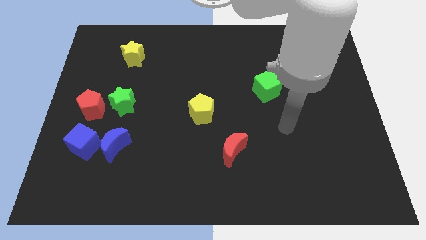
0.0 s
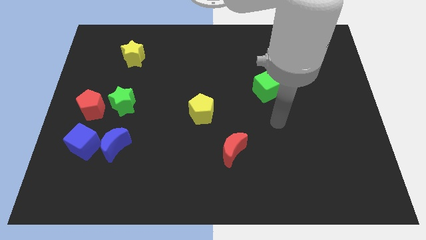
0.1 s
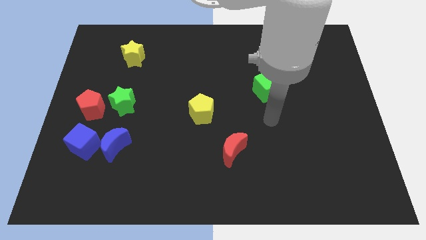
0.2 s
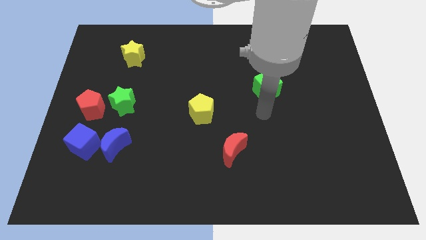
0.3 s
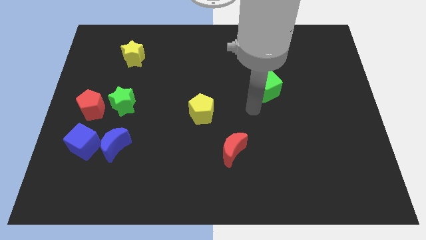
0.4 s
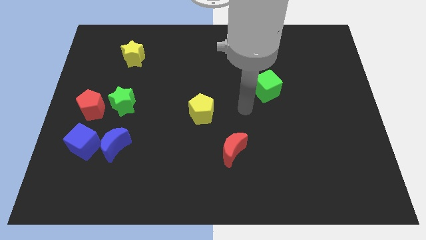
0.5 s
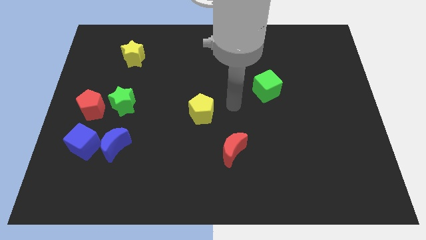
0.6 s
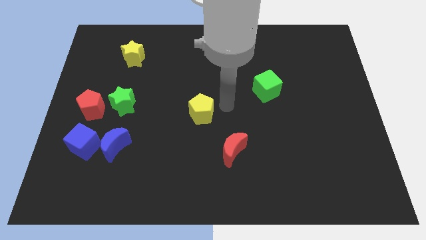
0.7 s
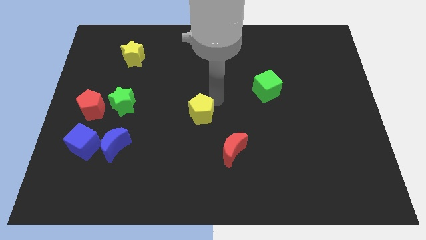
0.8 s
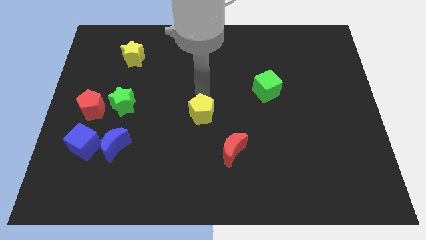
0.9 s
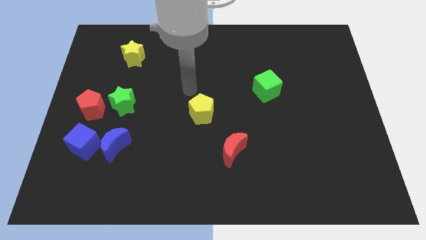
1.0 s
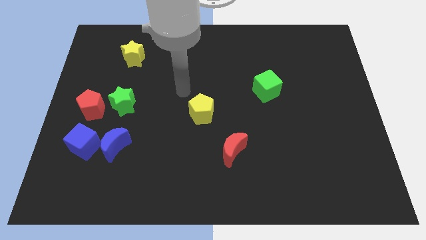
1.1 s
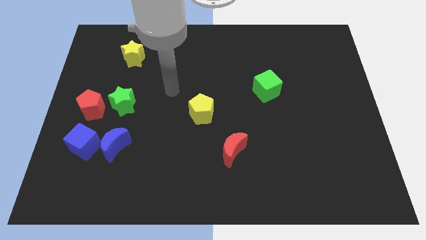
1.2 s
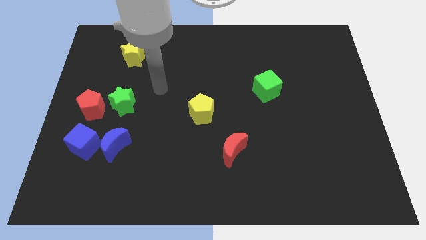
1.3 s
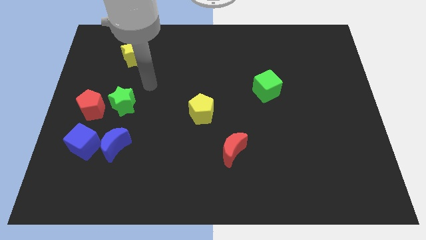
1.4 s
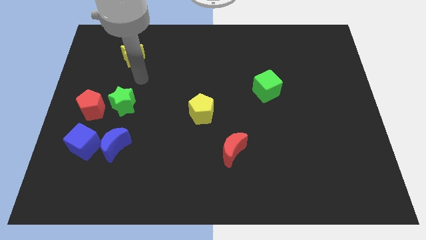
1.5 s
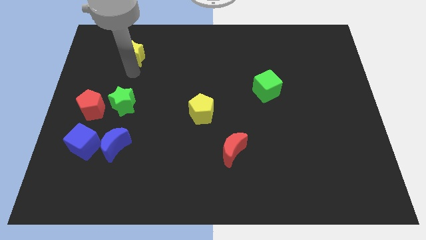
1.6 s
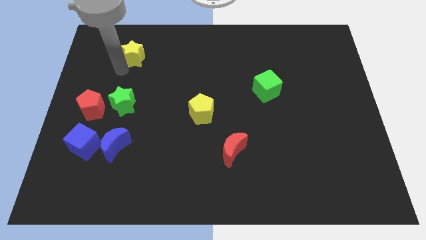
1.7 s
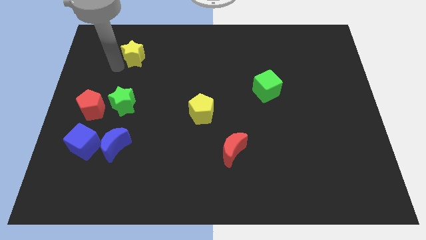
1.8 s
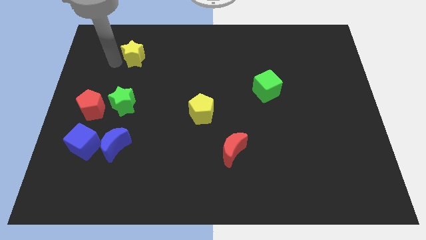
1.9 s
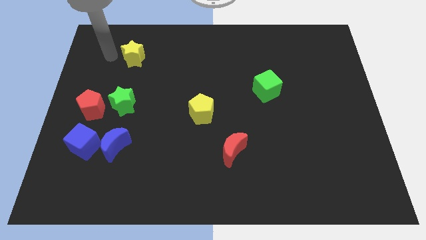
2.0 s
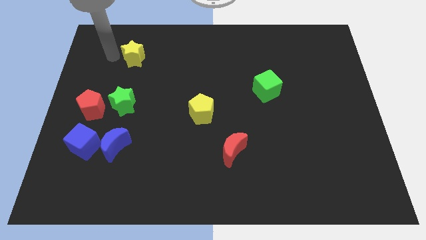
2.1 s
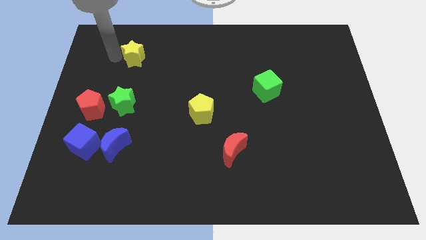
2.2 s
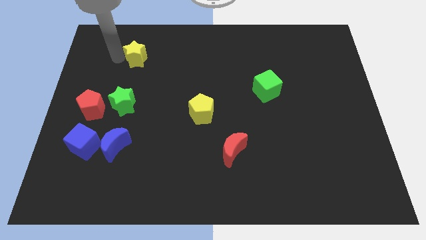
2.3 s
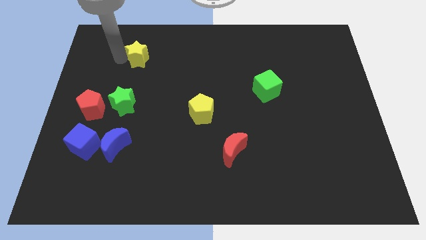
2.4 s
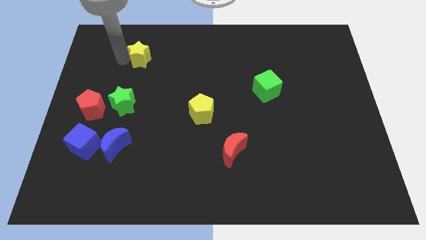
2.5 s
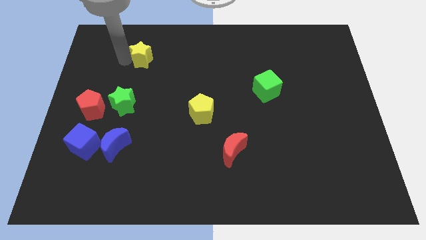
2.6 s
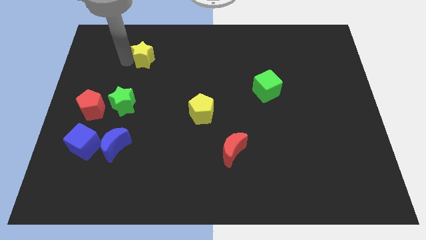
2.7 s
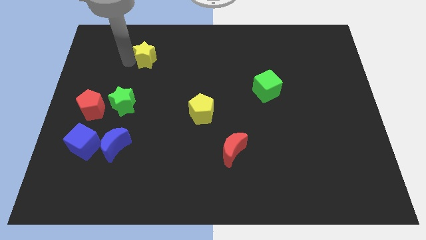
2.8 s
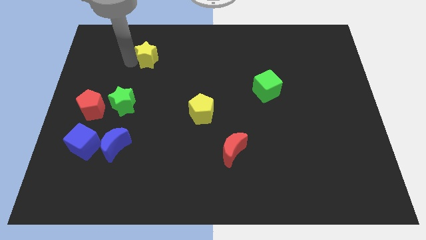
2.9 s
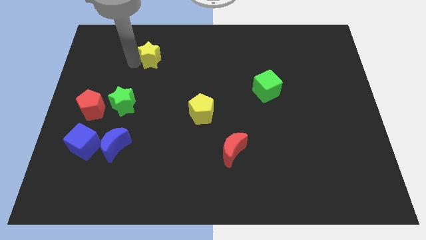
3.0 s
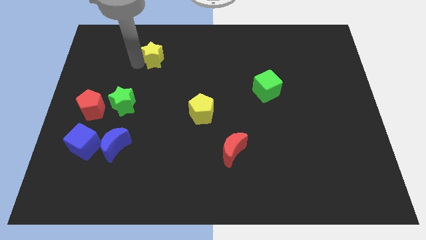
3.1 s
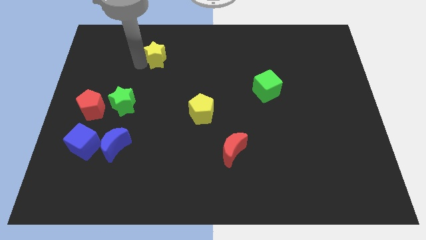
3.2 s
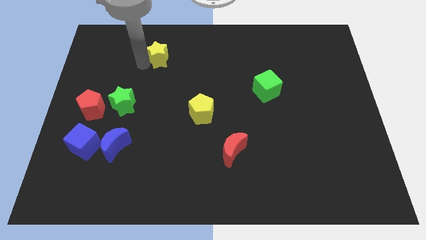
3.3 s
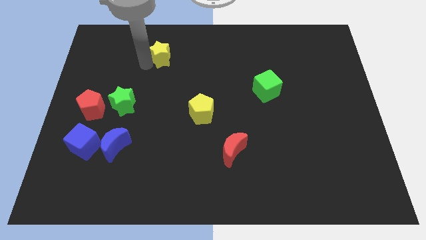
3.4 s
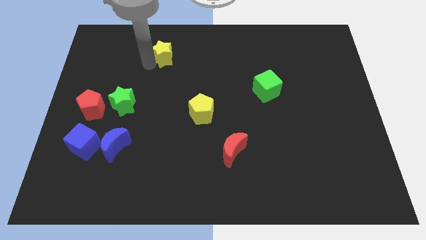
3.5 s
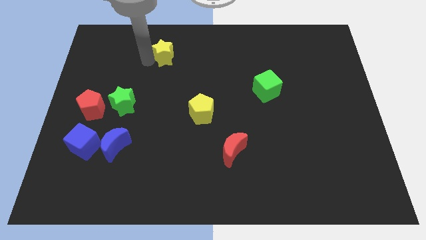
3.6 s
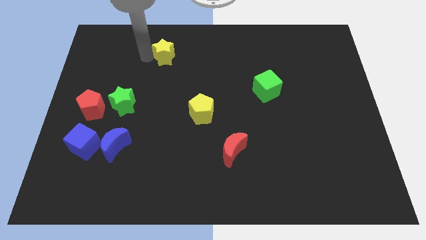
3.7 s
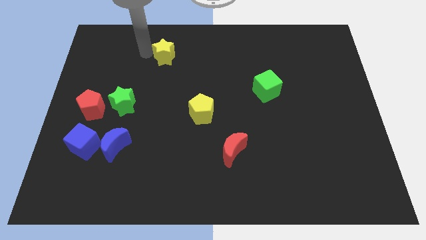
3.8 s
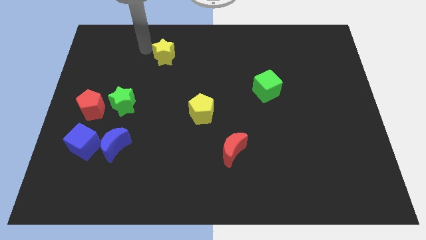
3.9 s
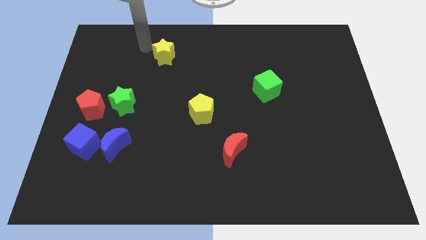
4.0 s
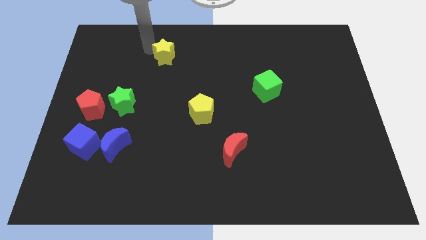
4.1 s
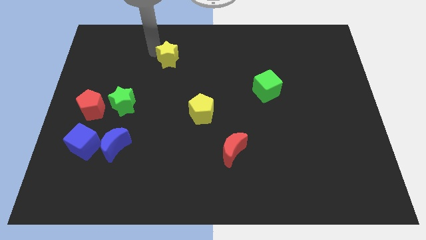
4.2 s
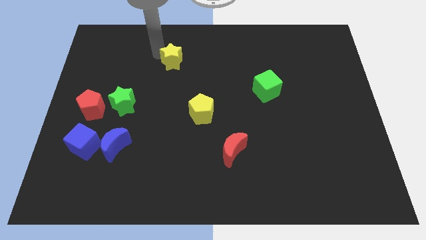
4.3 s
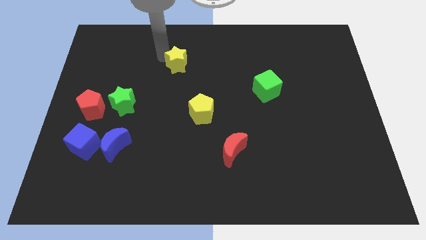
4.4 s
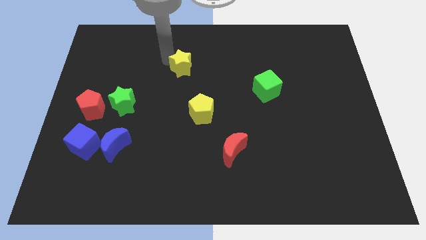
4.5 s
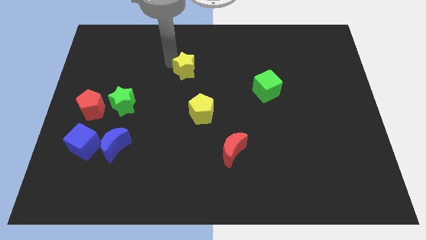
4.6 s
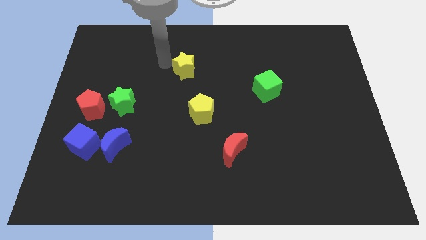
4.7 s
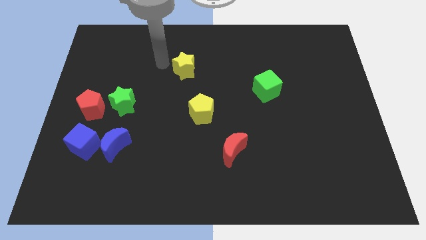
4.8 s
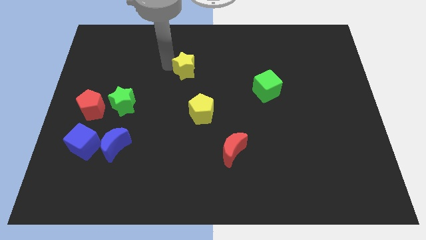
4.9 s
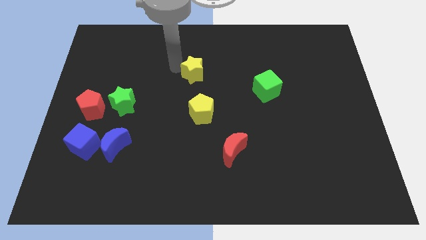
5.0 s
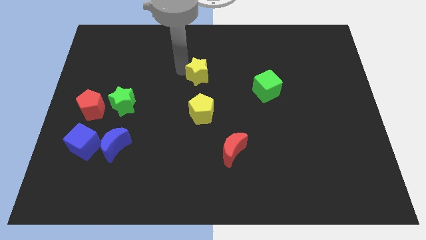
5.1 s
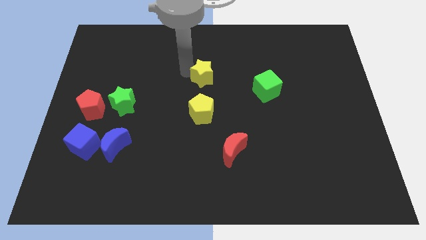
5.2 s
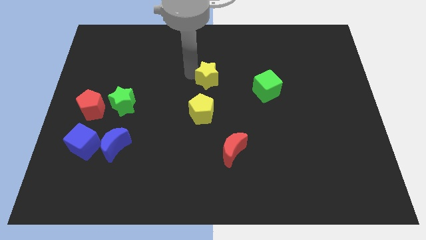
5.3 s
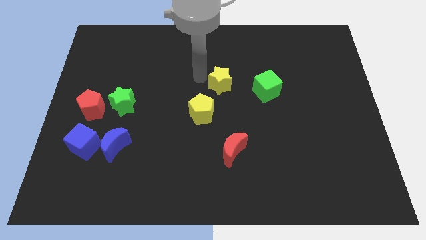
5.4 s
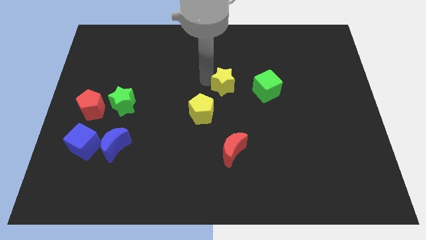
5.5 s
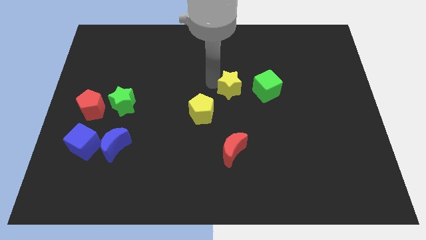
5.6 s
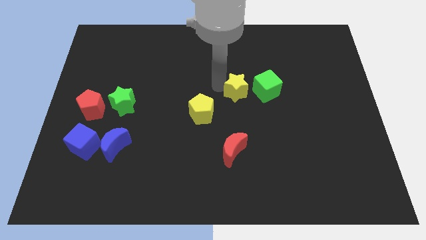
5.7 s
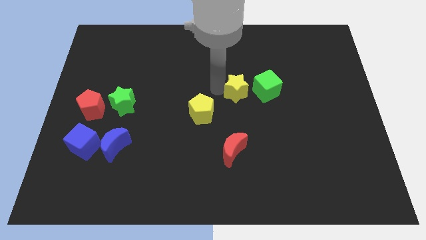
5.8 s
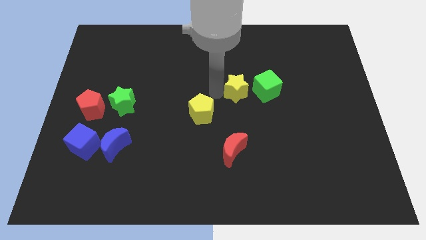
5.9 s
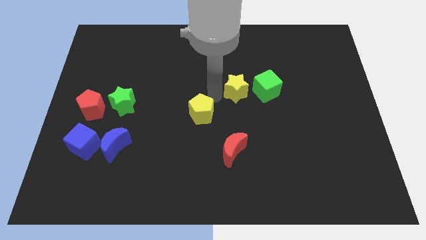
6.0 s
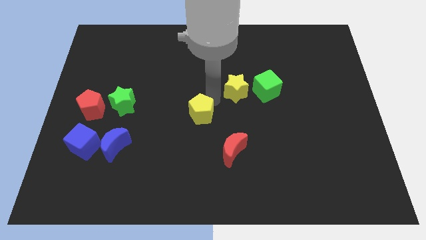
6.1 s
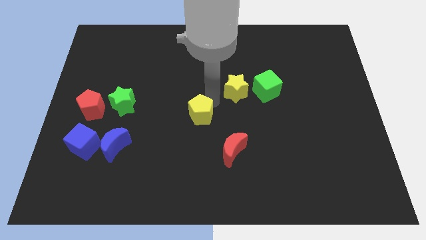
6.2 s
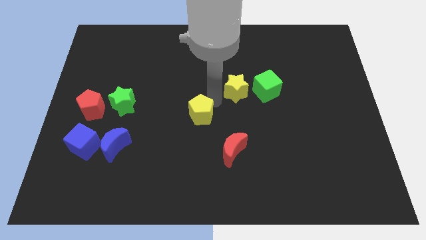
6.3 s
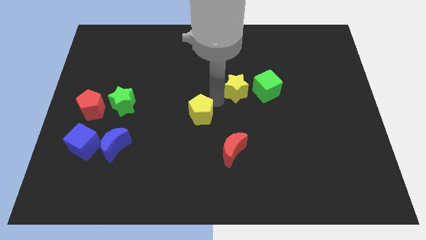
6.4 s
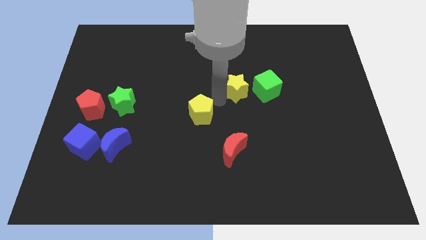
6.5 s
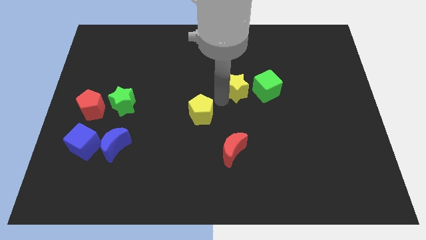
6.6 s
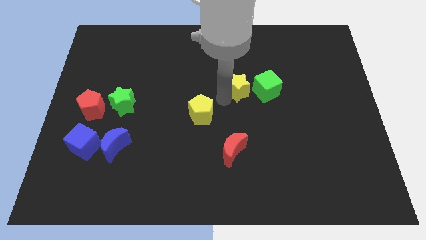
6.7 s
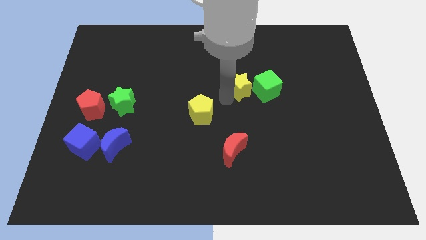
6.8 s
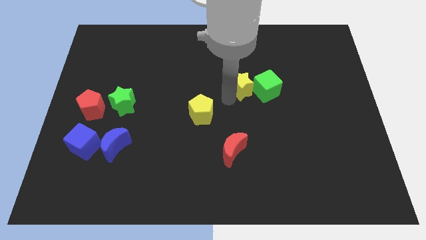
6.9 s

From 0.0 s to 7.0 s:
move the yellow star close to the green cube

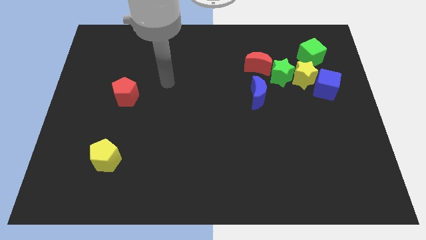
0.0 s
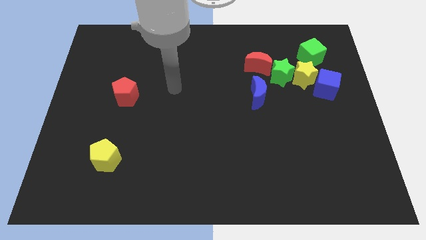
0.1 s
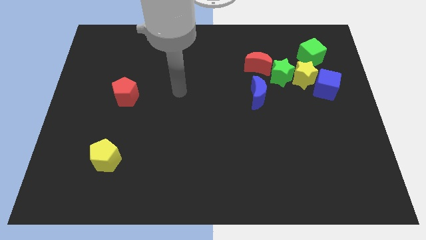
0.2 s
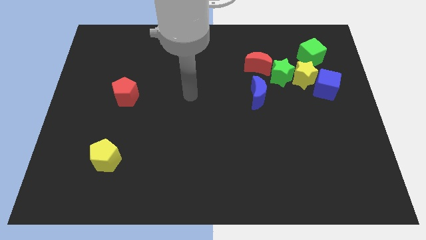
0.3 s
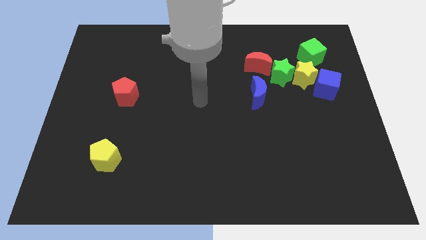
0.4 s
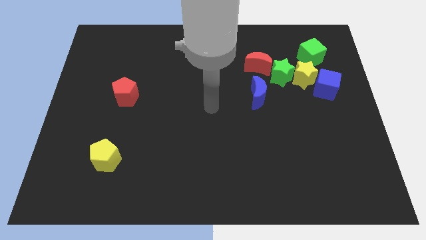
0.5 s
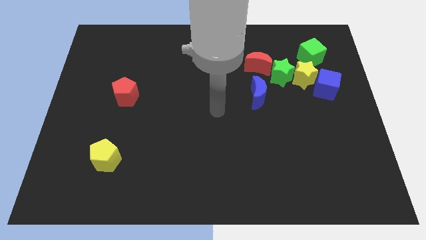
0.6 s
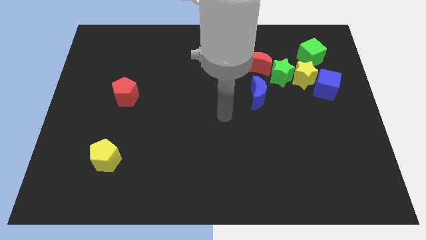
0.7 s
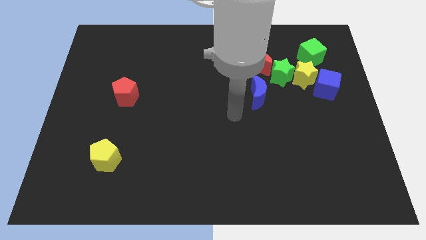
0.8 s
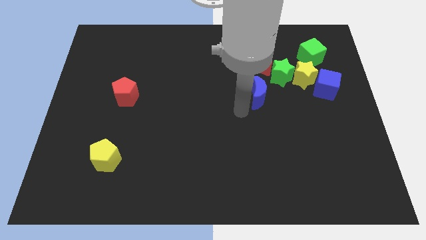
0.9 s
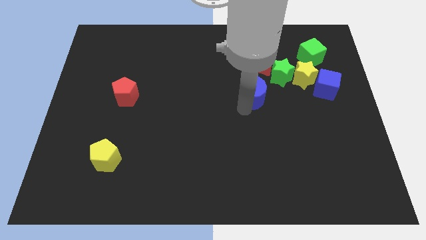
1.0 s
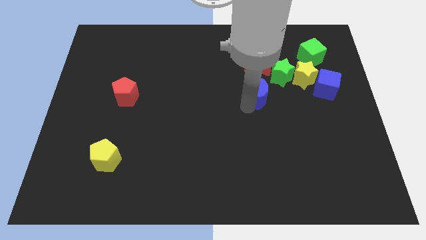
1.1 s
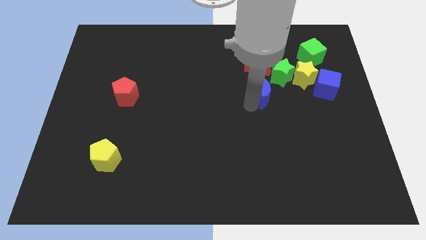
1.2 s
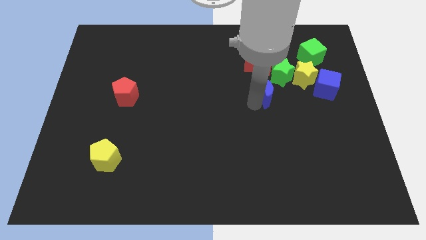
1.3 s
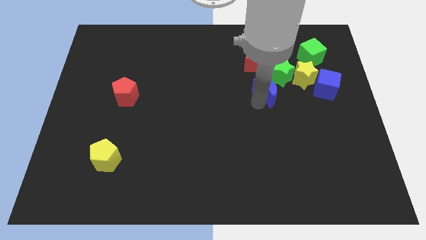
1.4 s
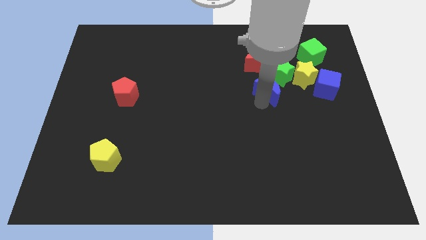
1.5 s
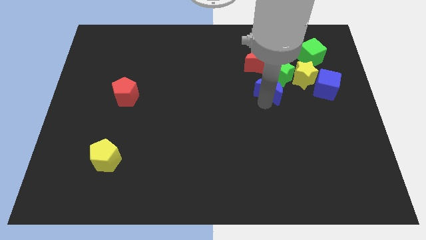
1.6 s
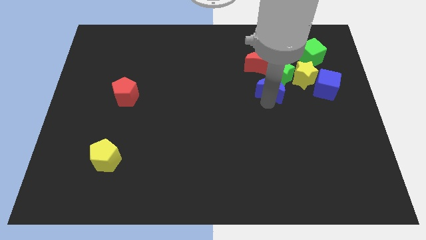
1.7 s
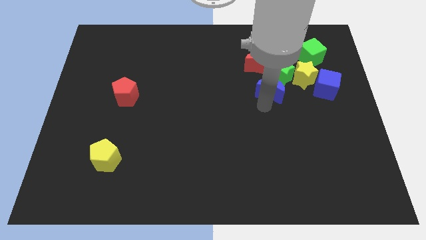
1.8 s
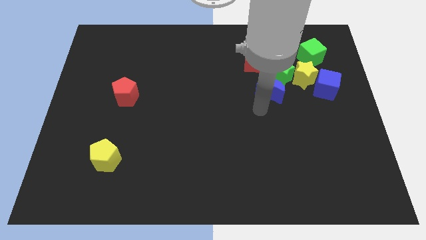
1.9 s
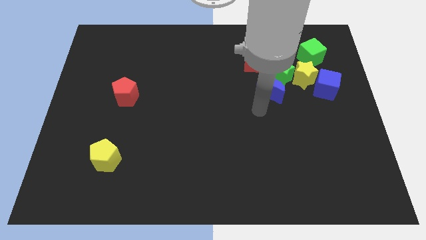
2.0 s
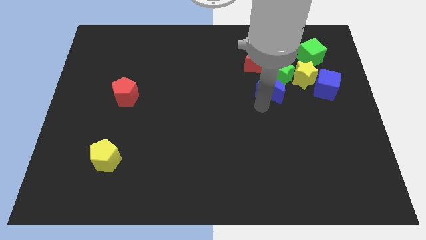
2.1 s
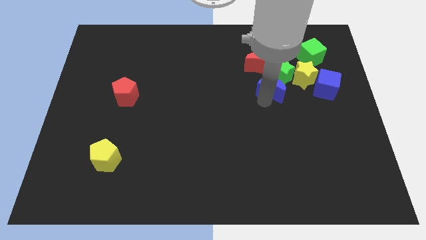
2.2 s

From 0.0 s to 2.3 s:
push the blue moon to the green star
